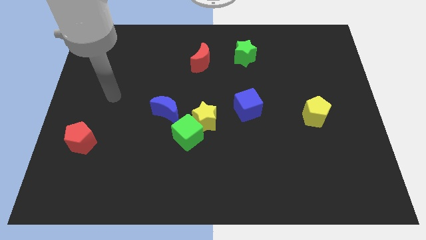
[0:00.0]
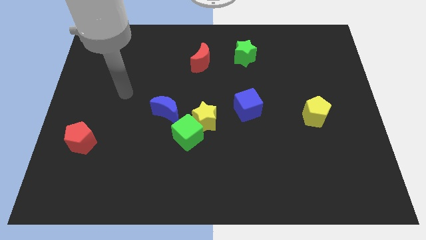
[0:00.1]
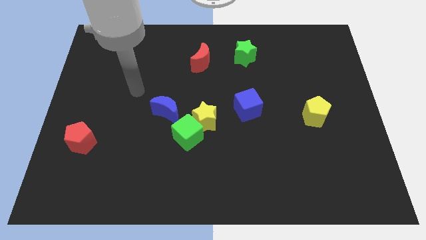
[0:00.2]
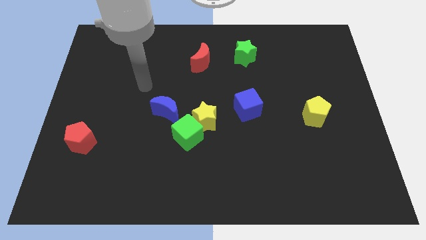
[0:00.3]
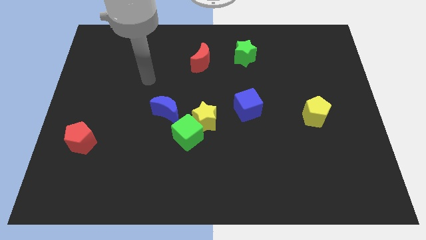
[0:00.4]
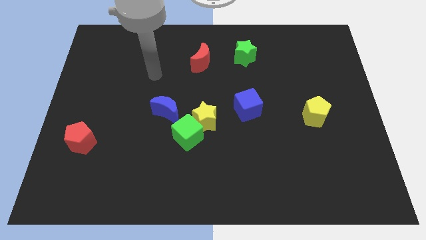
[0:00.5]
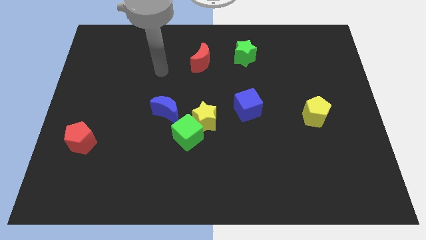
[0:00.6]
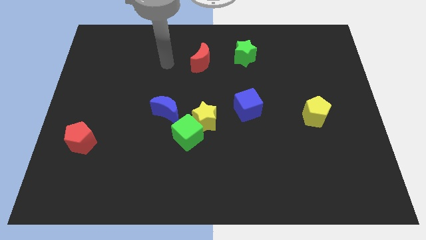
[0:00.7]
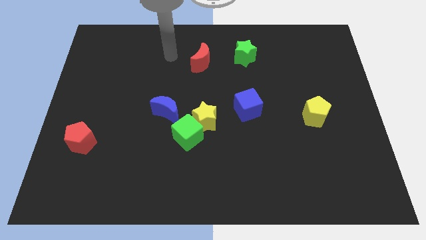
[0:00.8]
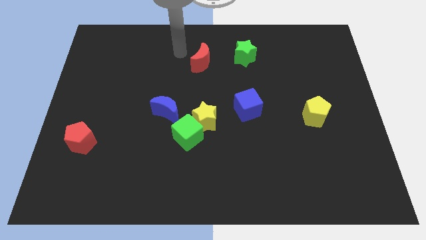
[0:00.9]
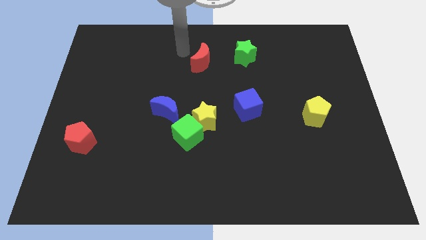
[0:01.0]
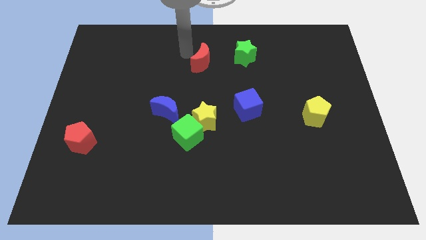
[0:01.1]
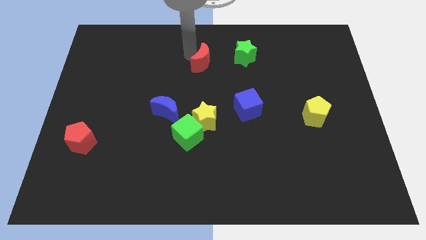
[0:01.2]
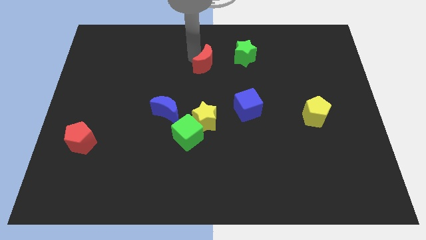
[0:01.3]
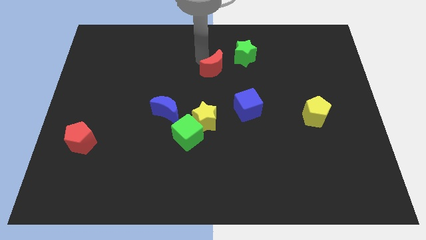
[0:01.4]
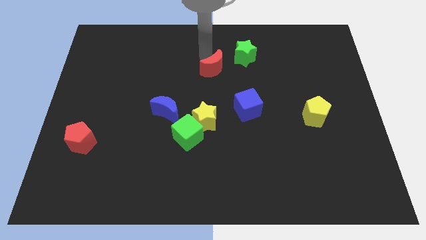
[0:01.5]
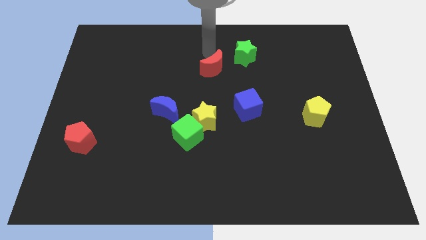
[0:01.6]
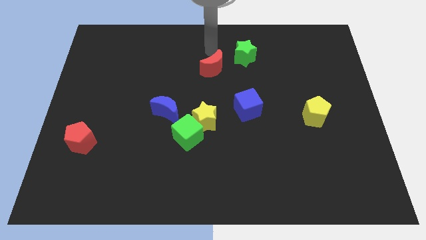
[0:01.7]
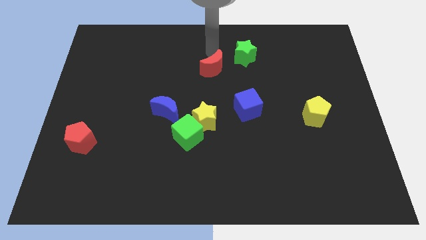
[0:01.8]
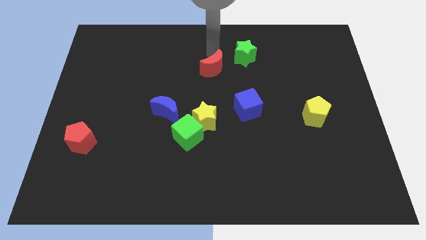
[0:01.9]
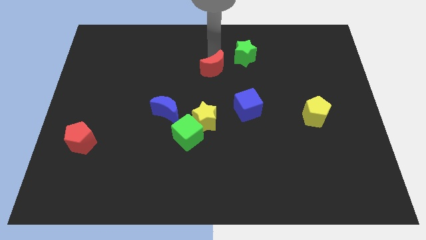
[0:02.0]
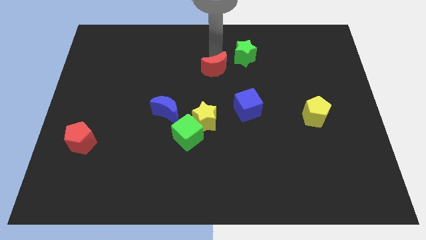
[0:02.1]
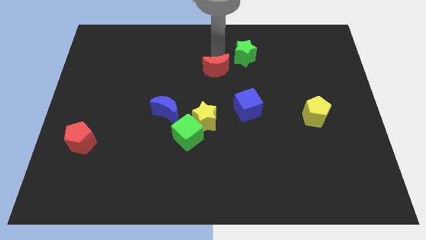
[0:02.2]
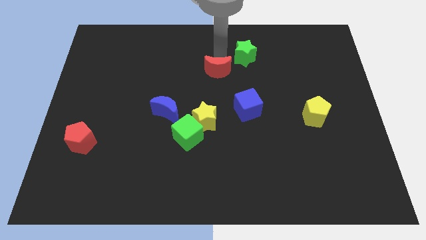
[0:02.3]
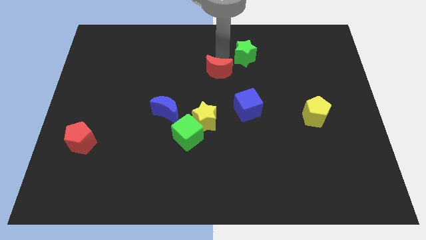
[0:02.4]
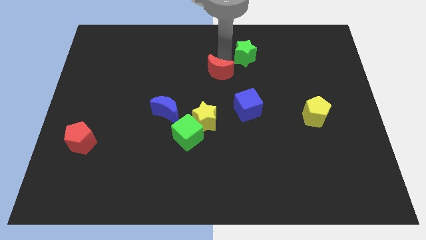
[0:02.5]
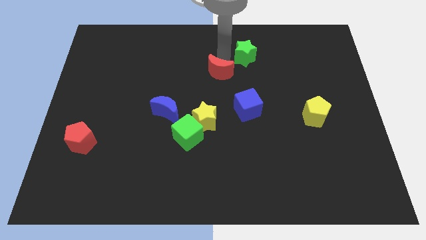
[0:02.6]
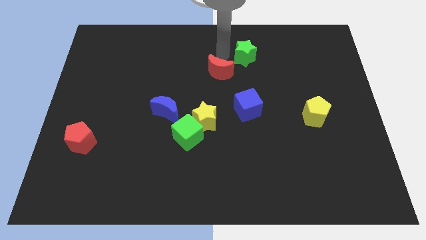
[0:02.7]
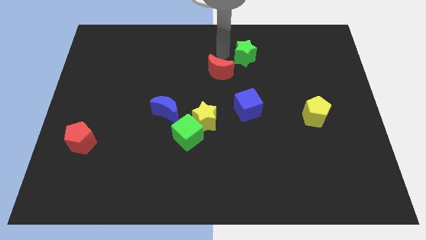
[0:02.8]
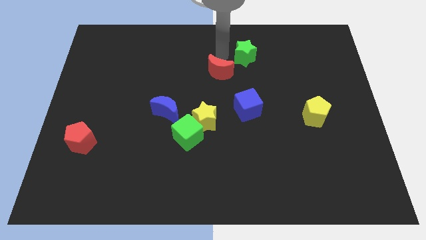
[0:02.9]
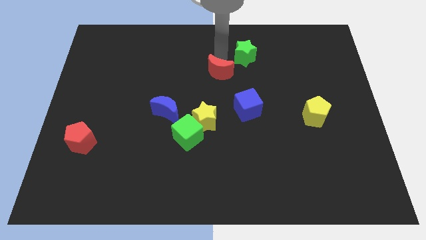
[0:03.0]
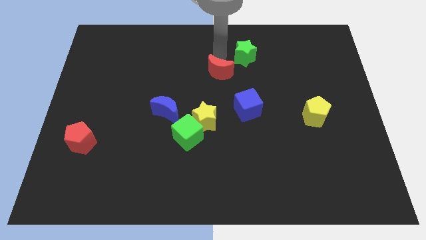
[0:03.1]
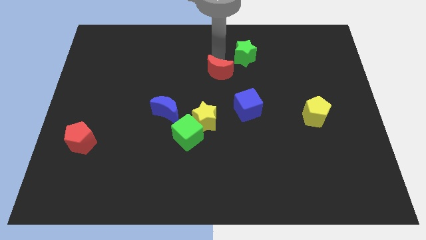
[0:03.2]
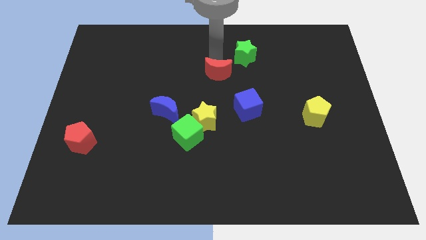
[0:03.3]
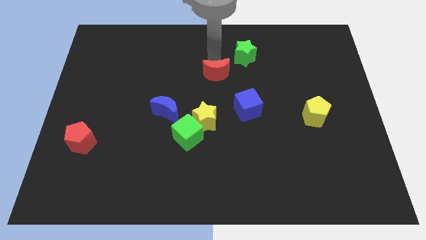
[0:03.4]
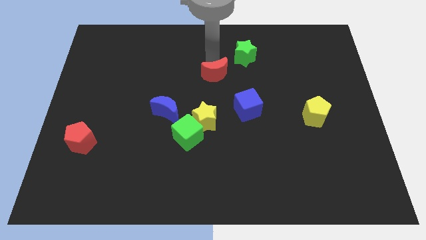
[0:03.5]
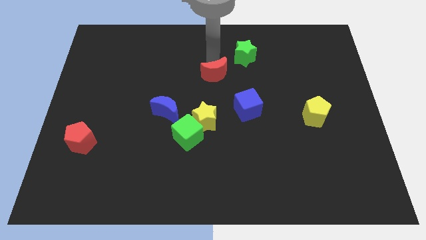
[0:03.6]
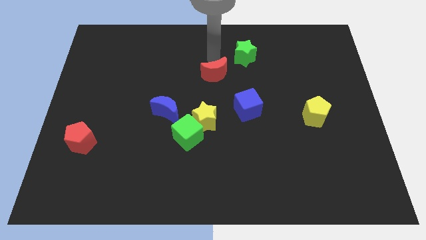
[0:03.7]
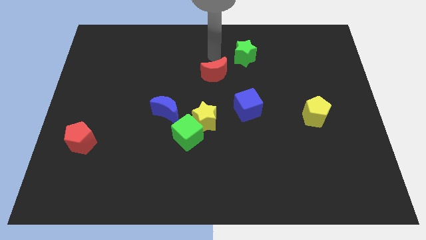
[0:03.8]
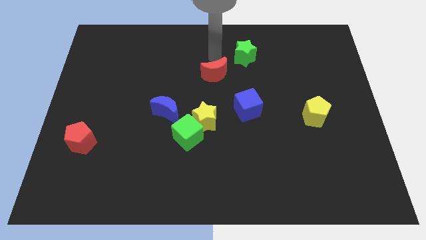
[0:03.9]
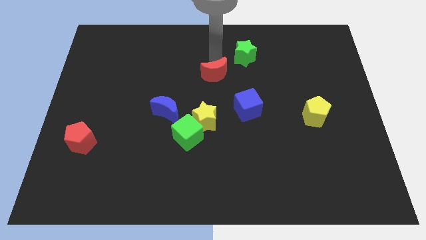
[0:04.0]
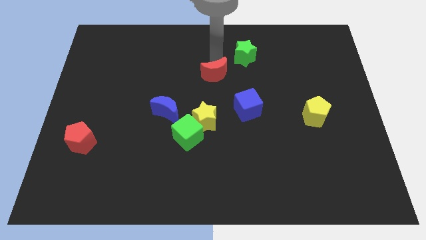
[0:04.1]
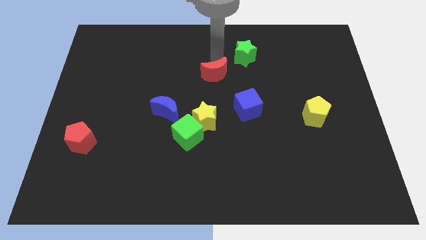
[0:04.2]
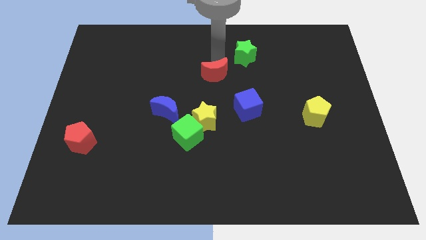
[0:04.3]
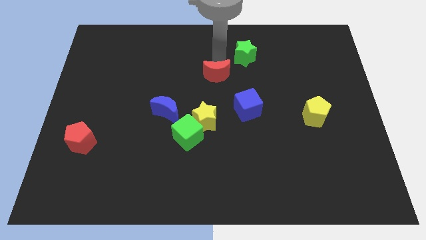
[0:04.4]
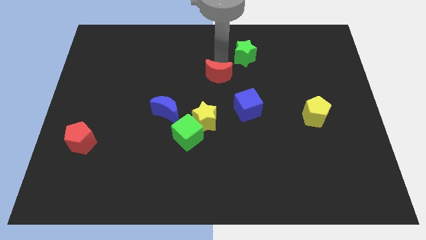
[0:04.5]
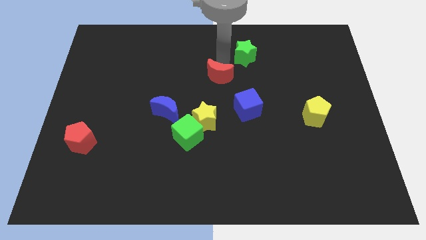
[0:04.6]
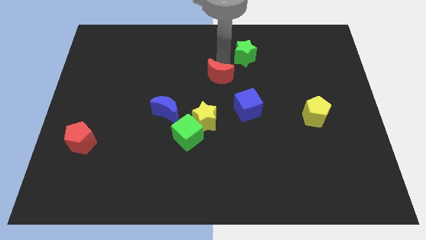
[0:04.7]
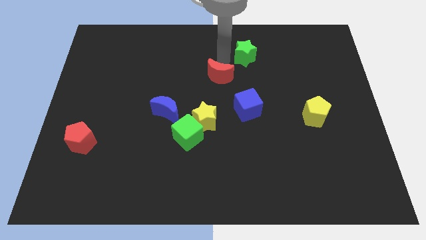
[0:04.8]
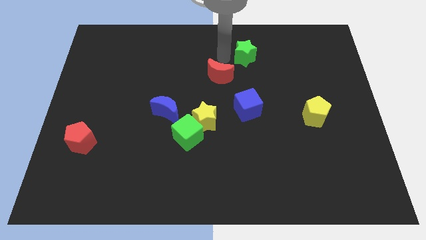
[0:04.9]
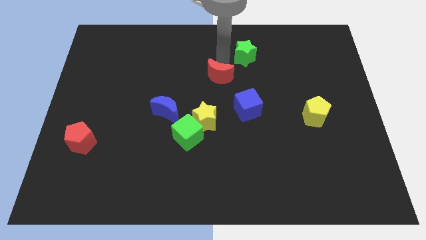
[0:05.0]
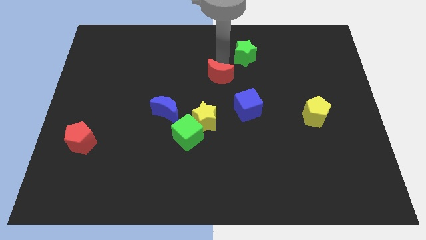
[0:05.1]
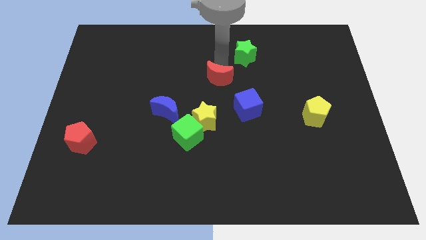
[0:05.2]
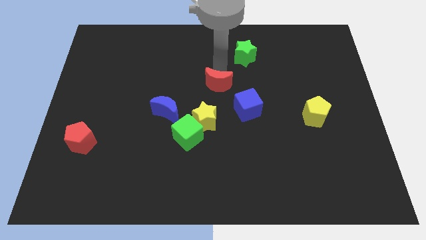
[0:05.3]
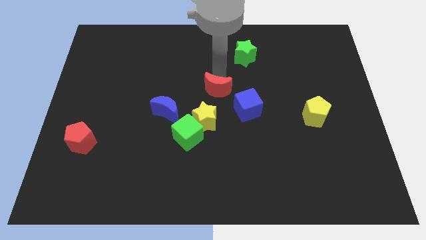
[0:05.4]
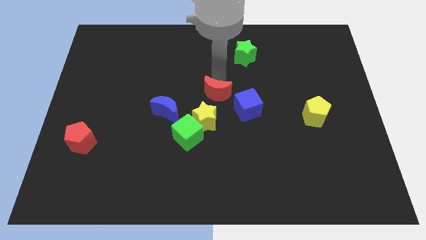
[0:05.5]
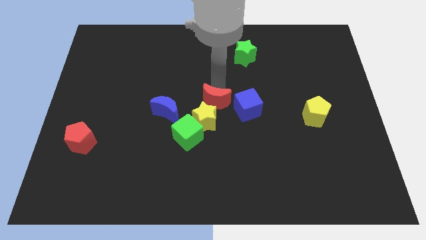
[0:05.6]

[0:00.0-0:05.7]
slide the red moon towards the yellow star

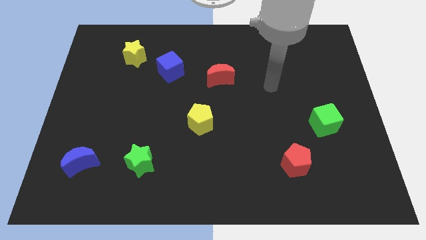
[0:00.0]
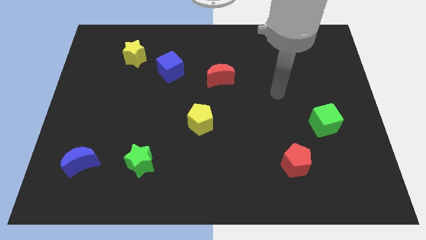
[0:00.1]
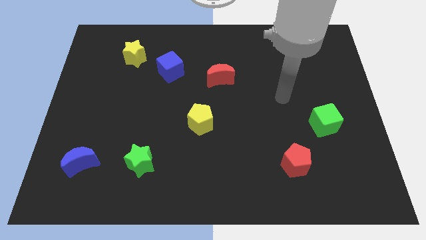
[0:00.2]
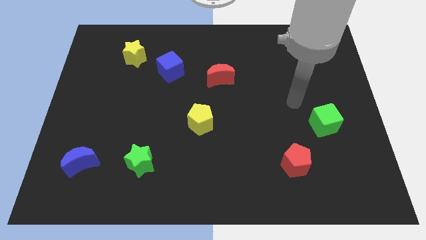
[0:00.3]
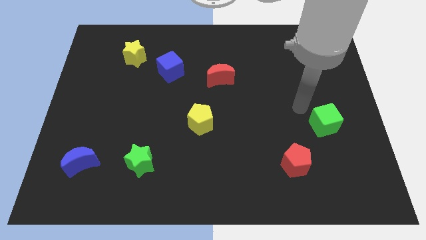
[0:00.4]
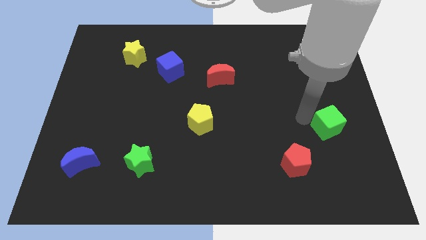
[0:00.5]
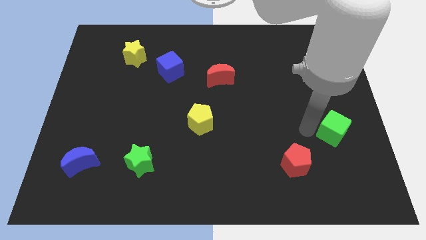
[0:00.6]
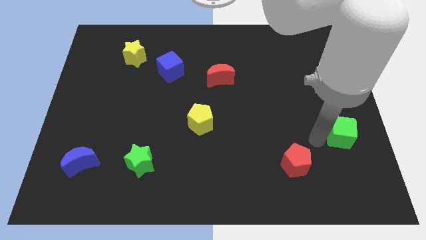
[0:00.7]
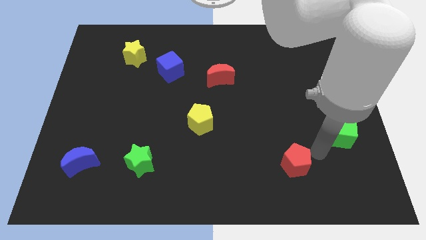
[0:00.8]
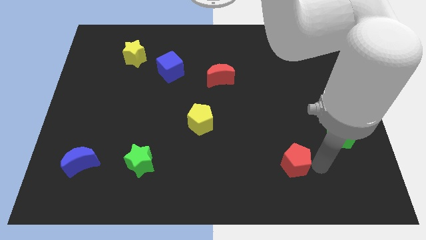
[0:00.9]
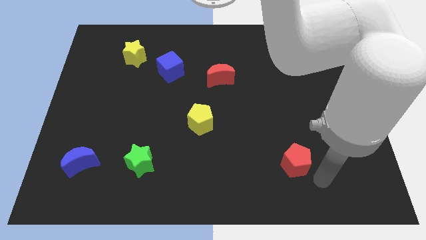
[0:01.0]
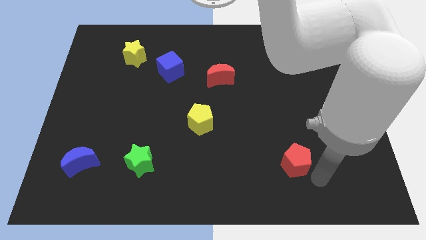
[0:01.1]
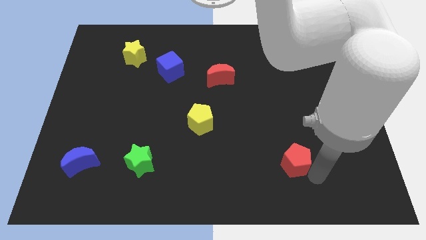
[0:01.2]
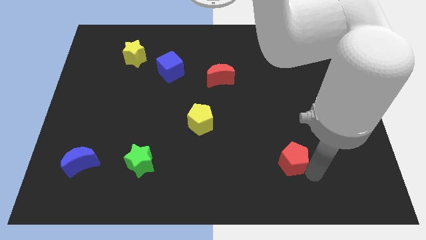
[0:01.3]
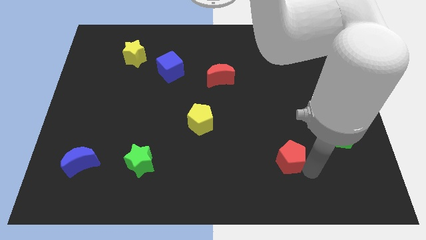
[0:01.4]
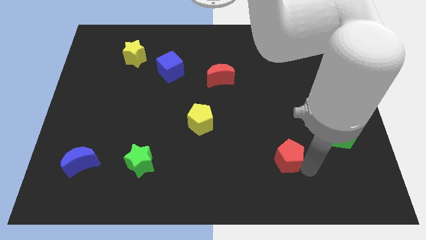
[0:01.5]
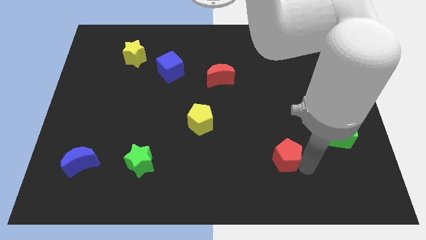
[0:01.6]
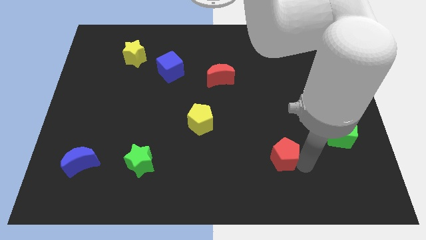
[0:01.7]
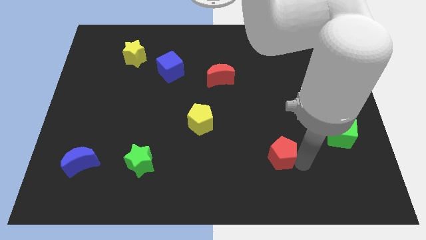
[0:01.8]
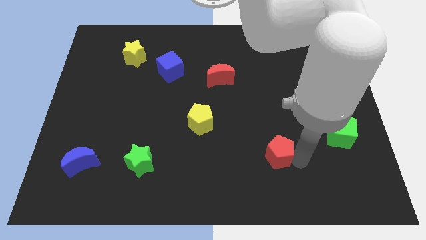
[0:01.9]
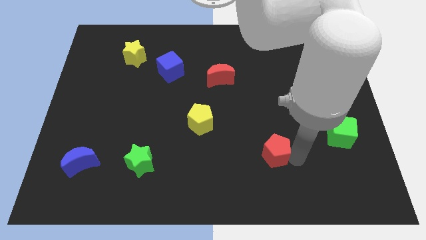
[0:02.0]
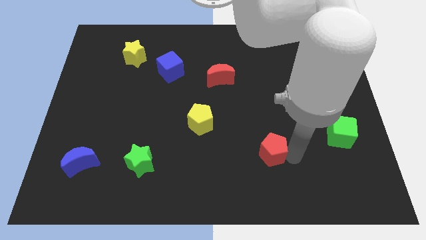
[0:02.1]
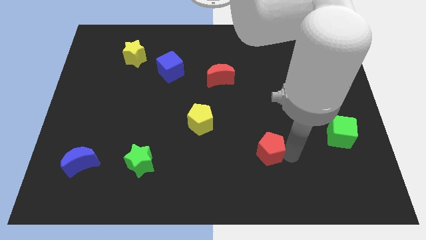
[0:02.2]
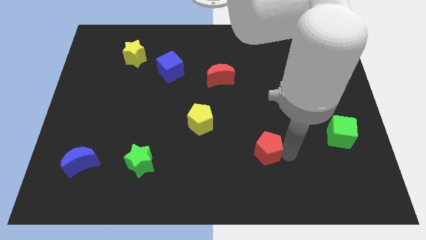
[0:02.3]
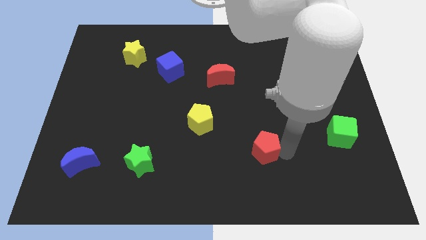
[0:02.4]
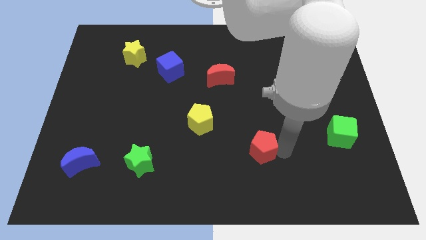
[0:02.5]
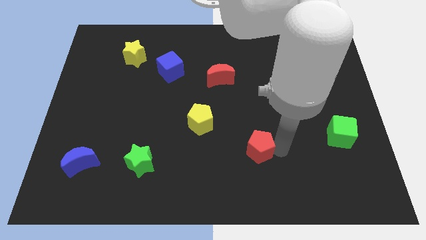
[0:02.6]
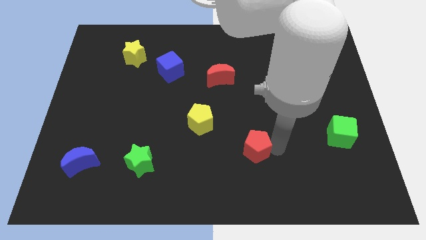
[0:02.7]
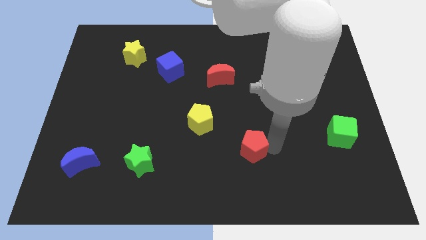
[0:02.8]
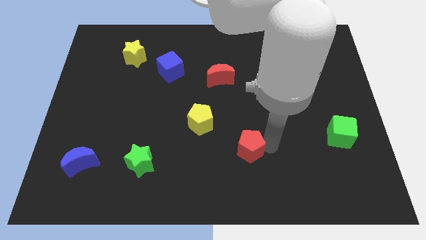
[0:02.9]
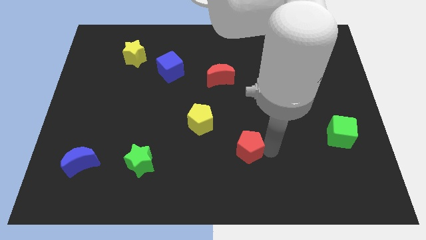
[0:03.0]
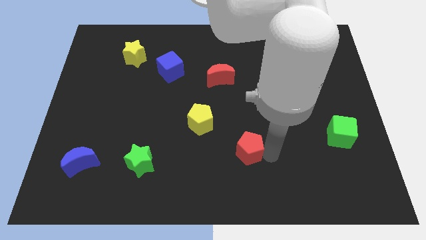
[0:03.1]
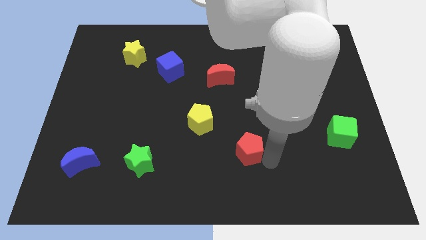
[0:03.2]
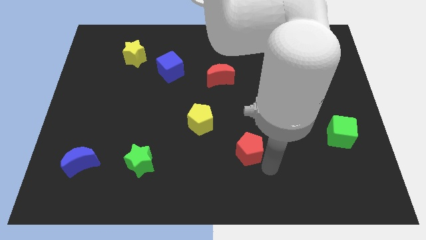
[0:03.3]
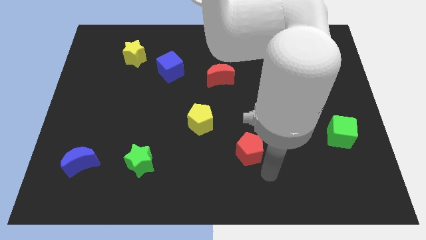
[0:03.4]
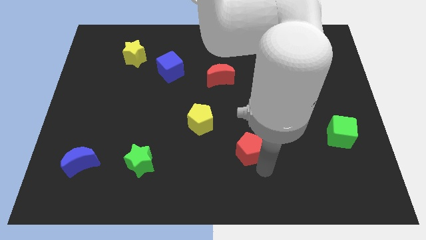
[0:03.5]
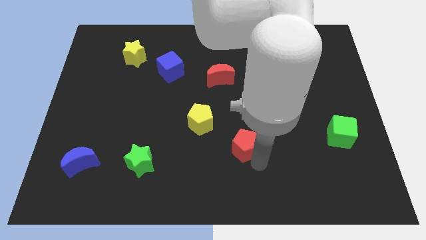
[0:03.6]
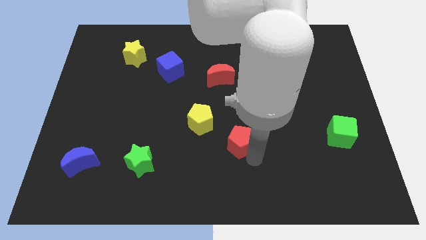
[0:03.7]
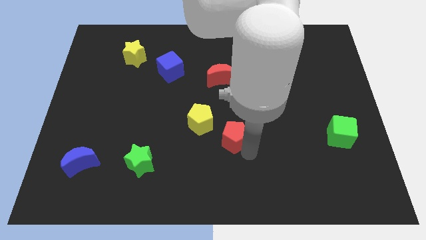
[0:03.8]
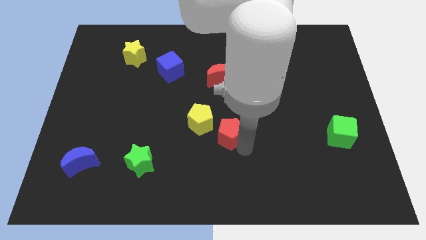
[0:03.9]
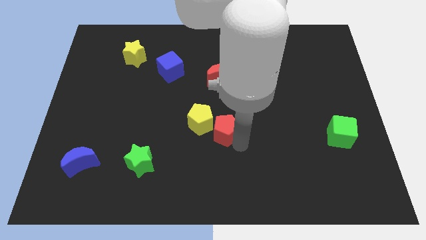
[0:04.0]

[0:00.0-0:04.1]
put the red pentagon close to the yellow pentagon
